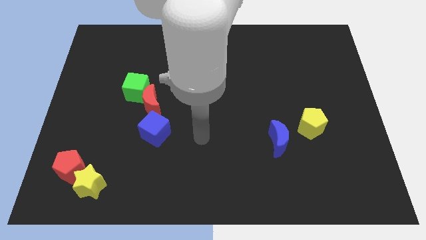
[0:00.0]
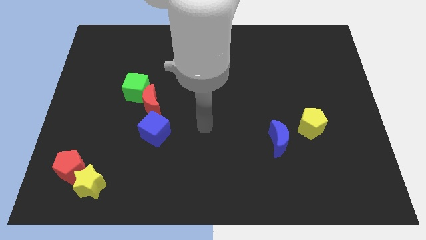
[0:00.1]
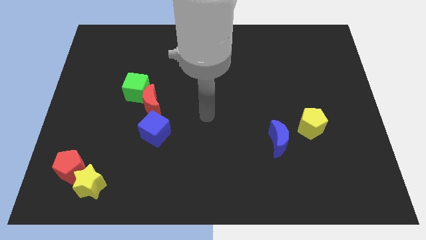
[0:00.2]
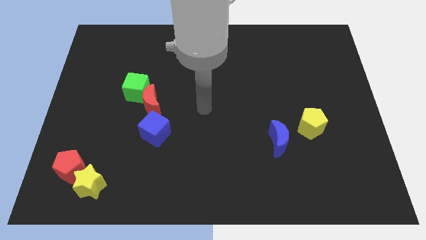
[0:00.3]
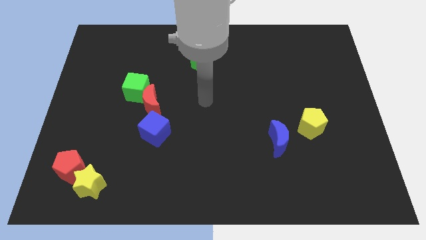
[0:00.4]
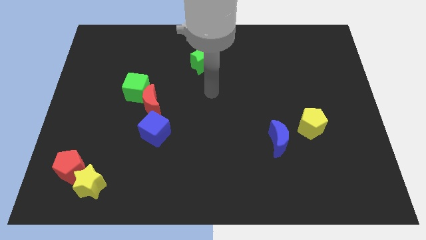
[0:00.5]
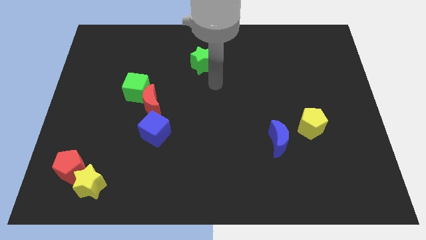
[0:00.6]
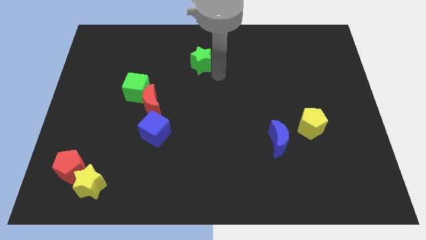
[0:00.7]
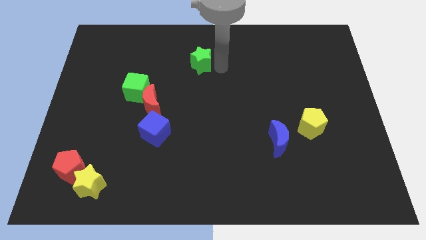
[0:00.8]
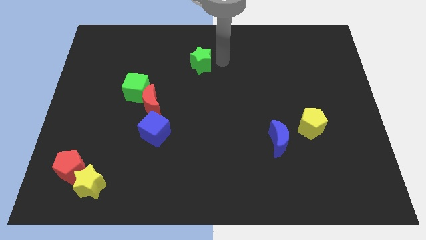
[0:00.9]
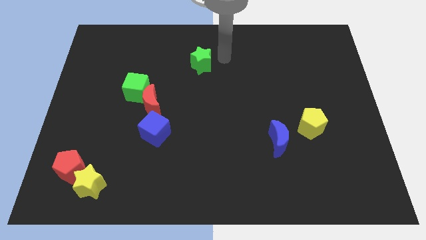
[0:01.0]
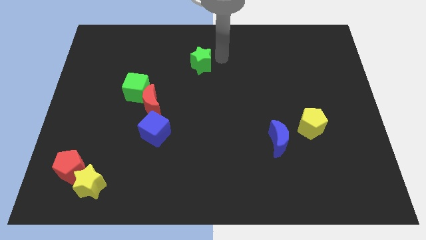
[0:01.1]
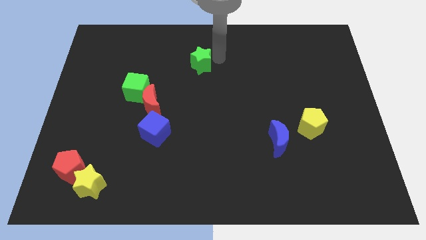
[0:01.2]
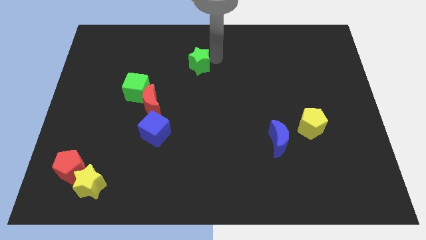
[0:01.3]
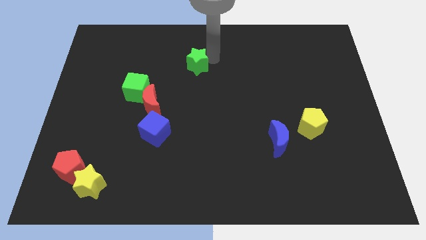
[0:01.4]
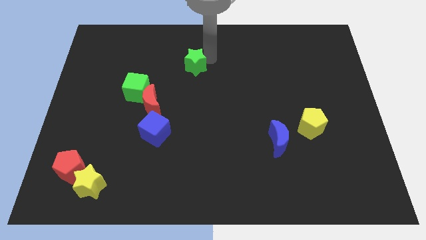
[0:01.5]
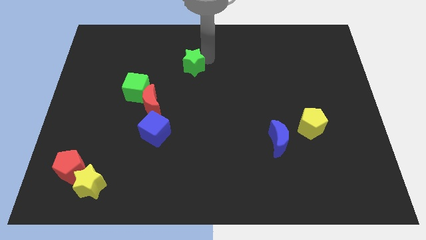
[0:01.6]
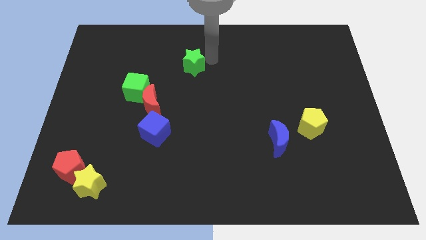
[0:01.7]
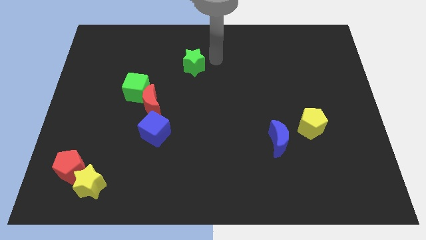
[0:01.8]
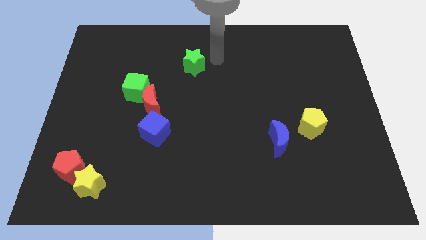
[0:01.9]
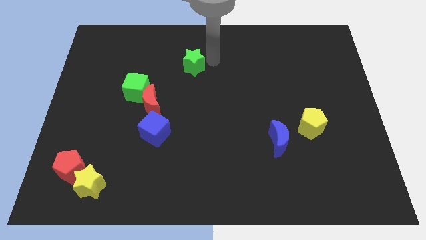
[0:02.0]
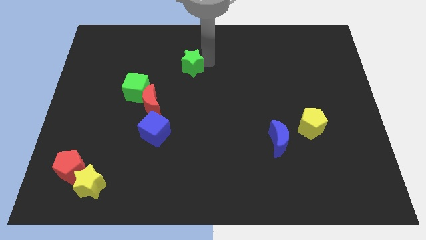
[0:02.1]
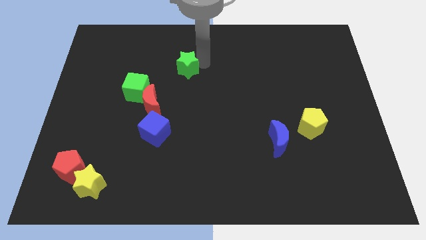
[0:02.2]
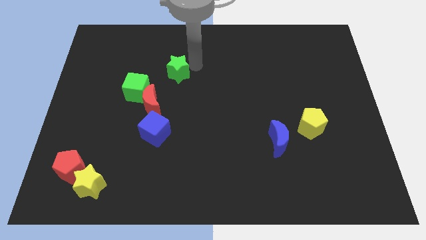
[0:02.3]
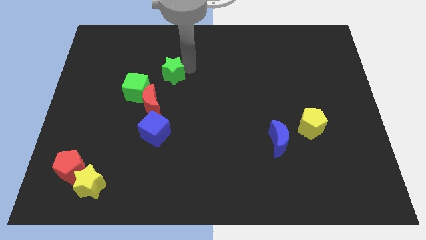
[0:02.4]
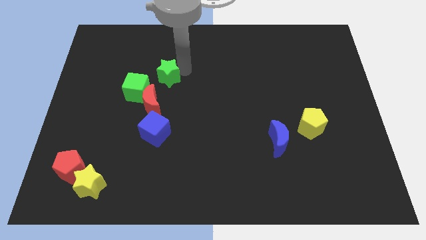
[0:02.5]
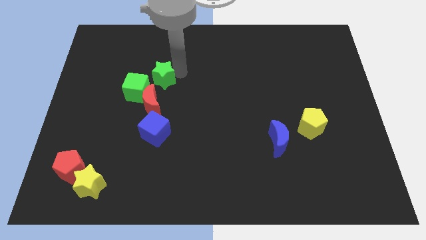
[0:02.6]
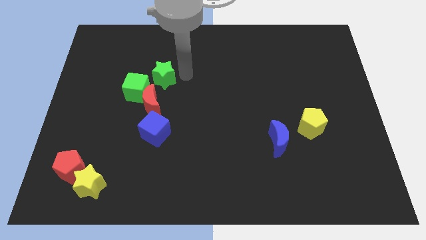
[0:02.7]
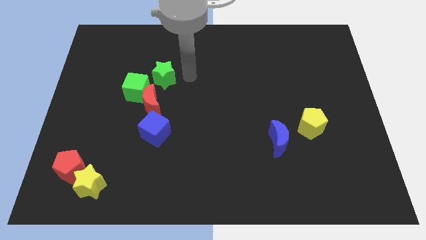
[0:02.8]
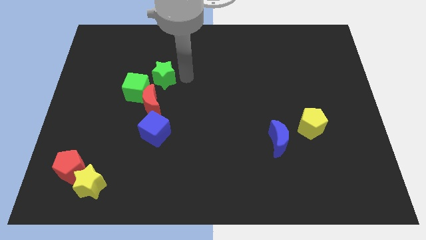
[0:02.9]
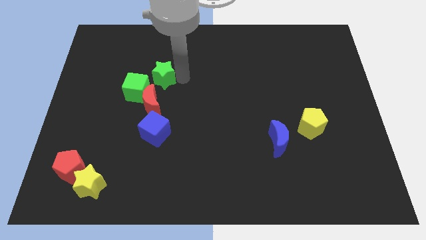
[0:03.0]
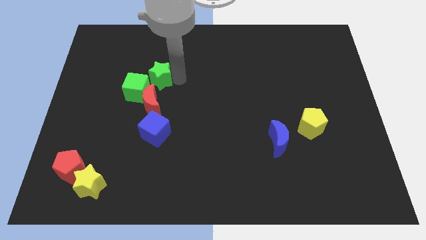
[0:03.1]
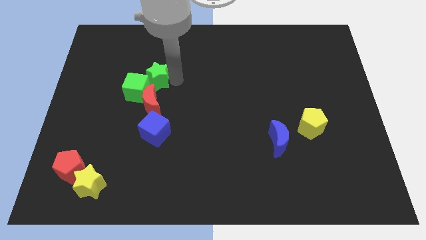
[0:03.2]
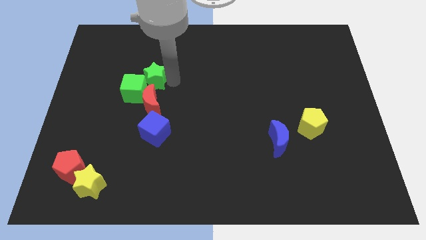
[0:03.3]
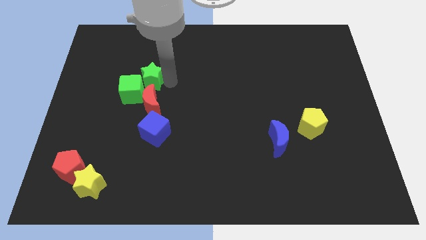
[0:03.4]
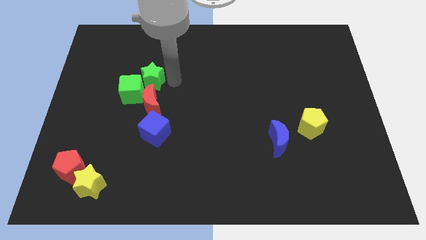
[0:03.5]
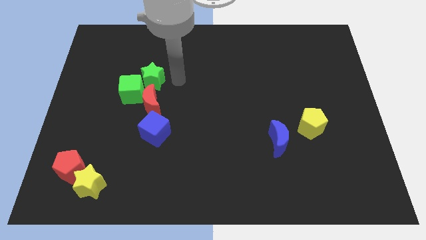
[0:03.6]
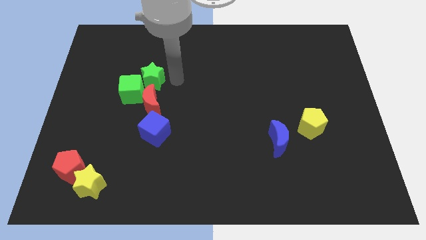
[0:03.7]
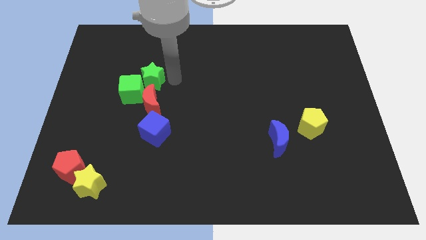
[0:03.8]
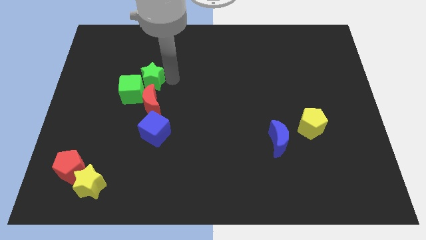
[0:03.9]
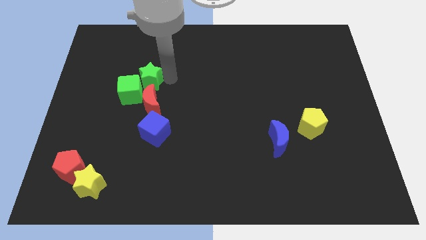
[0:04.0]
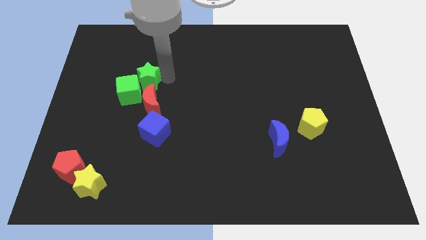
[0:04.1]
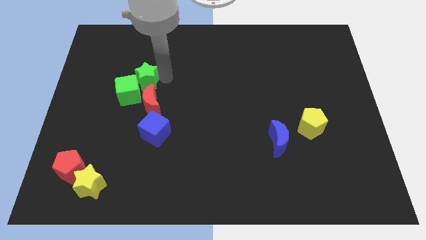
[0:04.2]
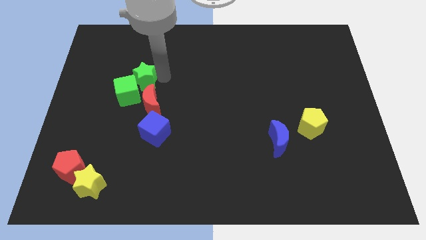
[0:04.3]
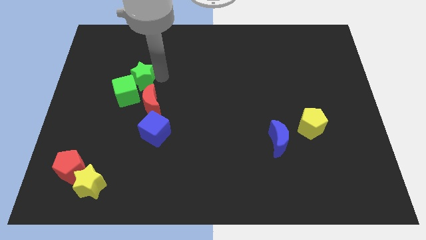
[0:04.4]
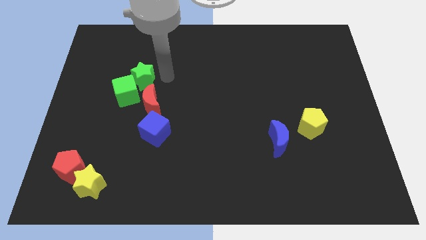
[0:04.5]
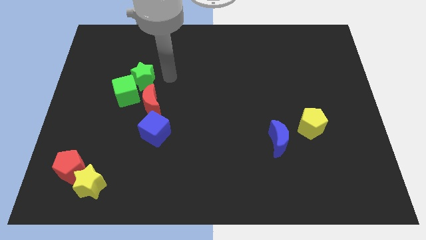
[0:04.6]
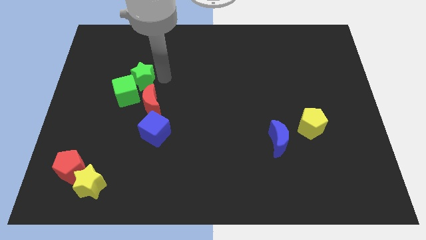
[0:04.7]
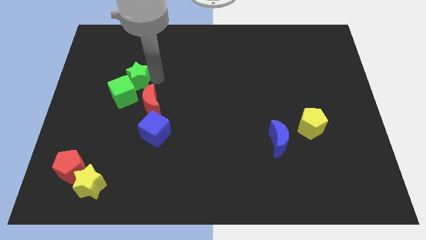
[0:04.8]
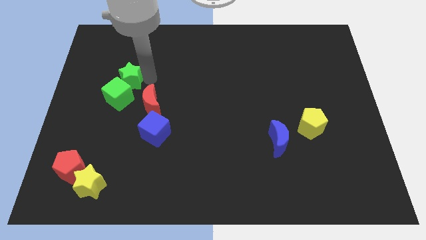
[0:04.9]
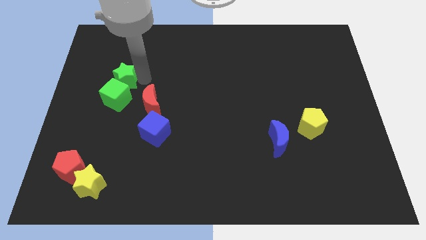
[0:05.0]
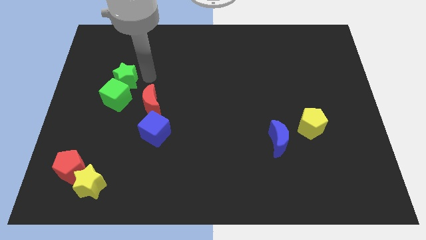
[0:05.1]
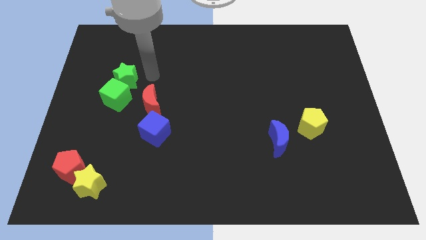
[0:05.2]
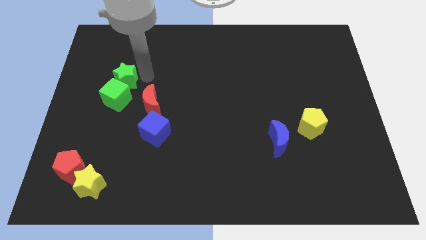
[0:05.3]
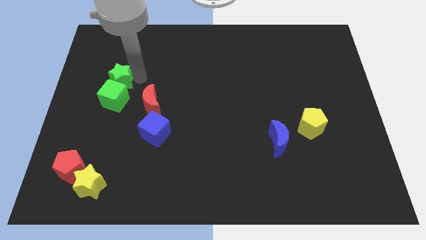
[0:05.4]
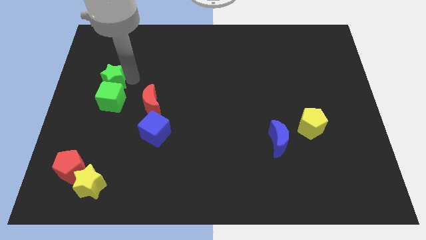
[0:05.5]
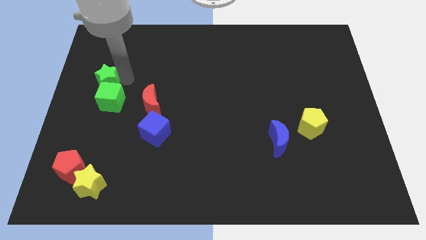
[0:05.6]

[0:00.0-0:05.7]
move the green star to the left side of the board
